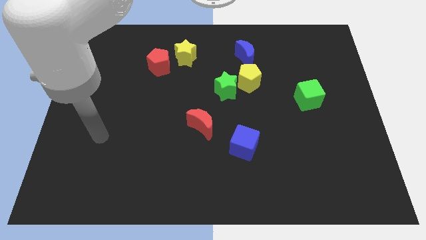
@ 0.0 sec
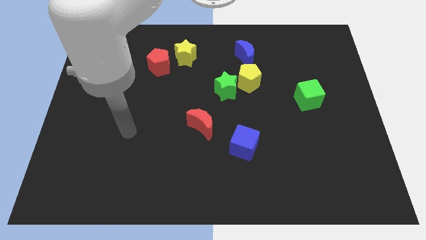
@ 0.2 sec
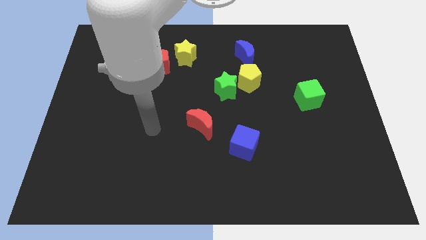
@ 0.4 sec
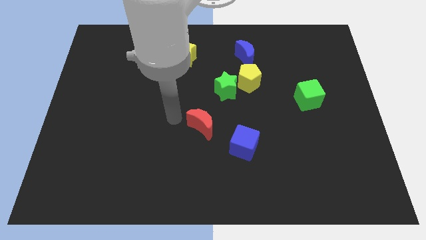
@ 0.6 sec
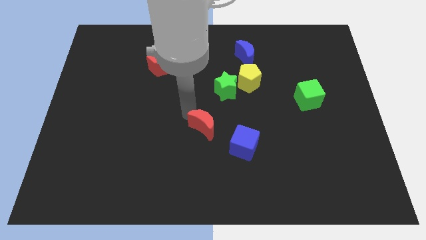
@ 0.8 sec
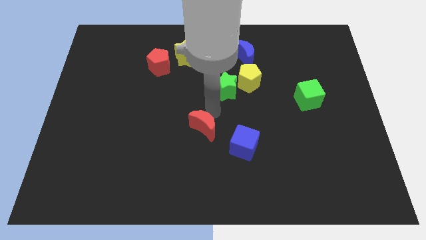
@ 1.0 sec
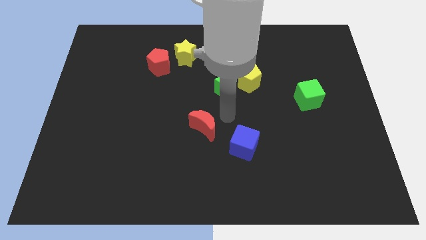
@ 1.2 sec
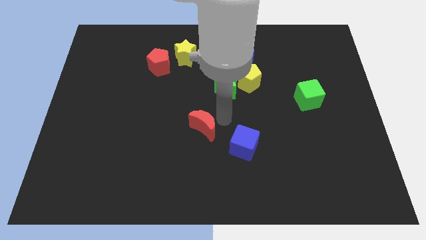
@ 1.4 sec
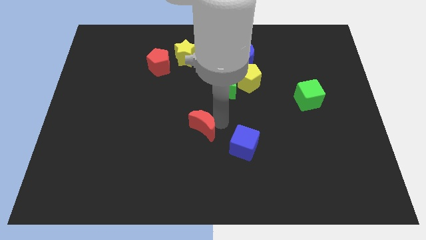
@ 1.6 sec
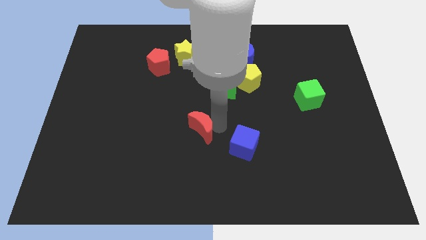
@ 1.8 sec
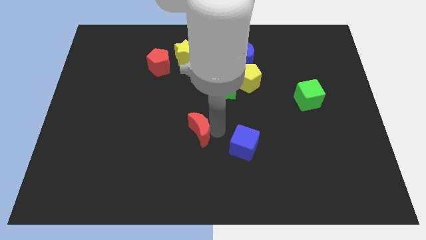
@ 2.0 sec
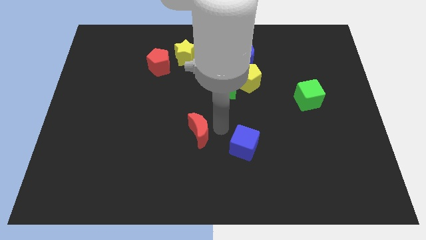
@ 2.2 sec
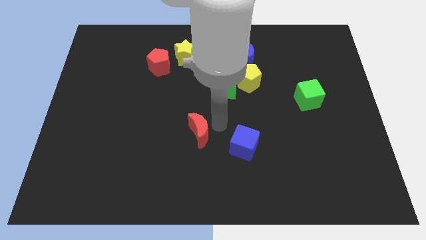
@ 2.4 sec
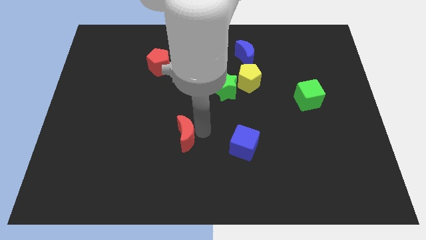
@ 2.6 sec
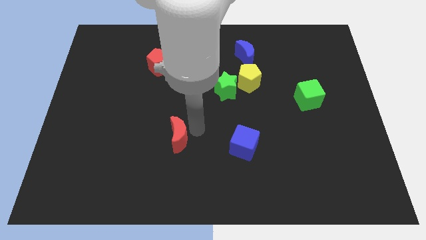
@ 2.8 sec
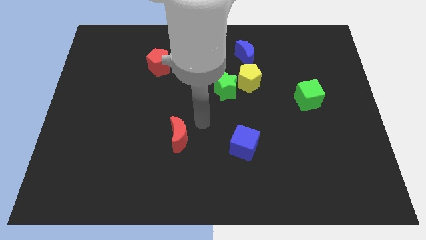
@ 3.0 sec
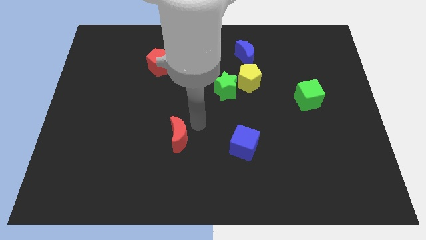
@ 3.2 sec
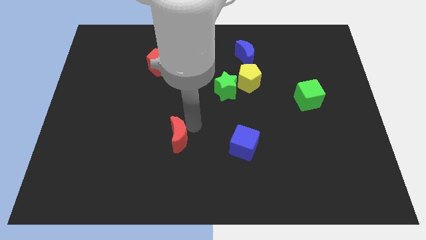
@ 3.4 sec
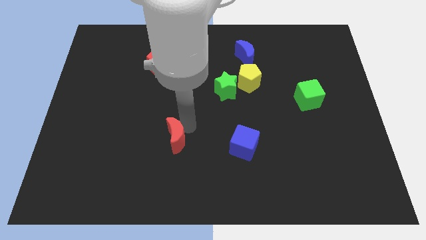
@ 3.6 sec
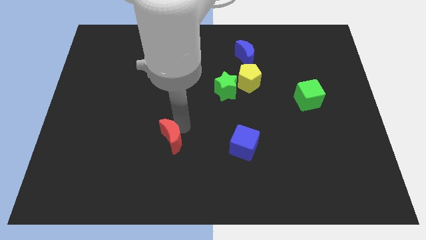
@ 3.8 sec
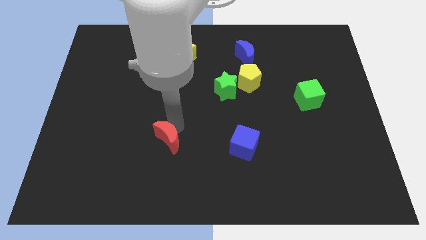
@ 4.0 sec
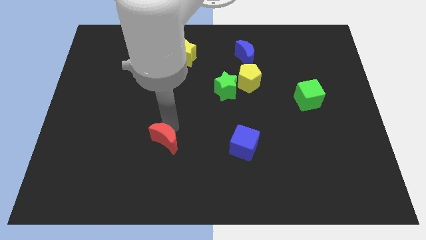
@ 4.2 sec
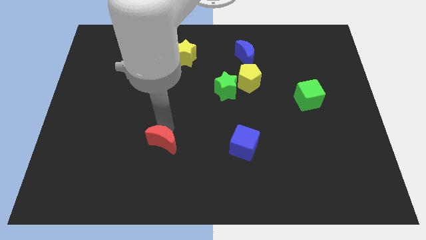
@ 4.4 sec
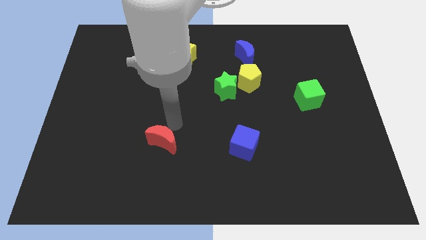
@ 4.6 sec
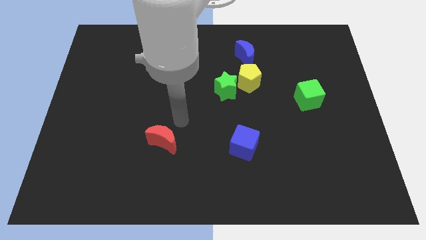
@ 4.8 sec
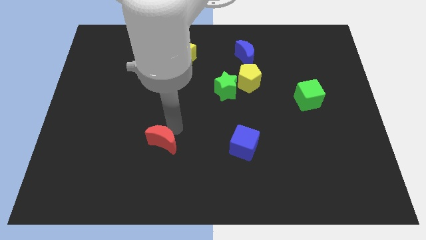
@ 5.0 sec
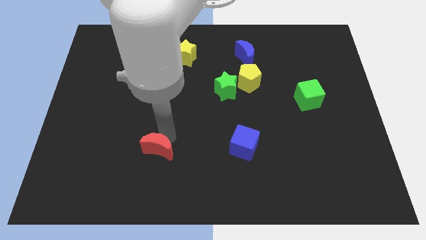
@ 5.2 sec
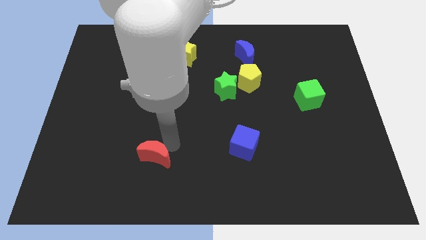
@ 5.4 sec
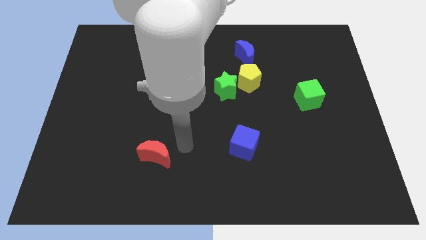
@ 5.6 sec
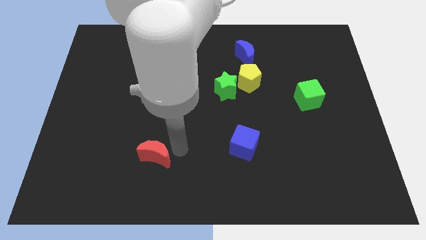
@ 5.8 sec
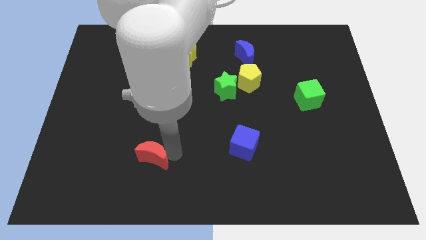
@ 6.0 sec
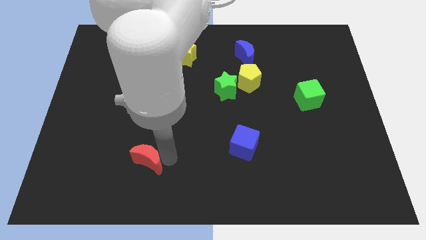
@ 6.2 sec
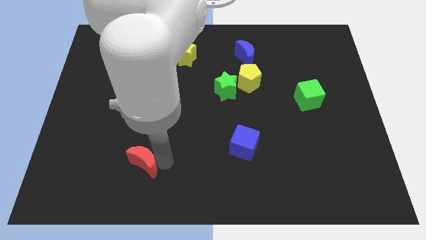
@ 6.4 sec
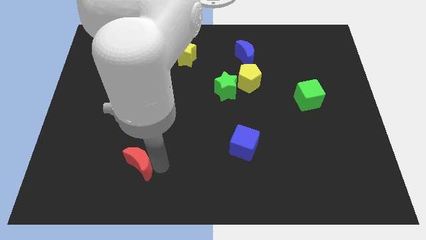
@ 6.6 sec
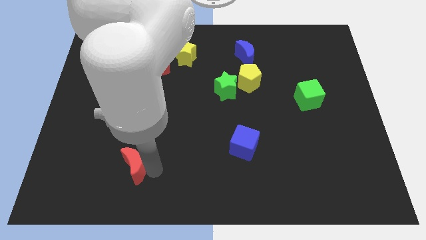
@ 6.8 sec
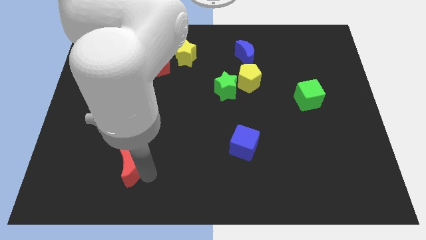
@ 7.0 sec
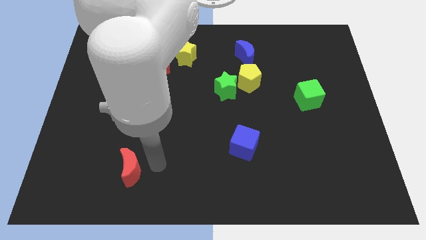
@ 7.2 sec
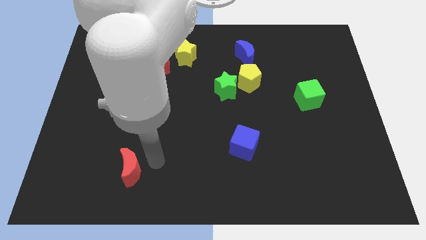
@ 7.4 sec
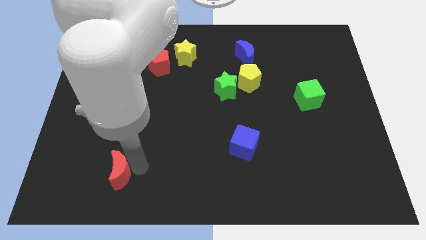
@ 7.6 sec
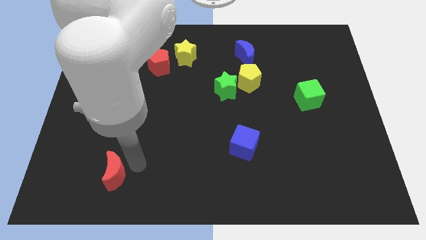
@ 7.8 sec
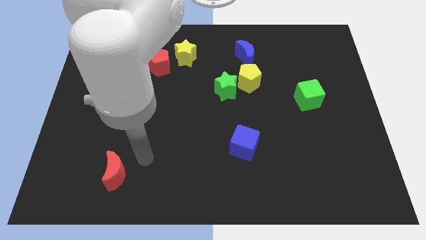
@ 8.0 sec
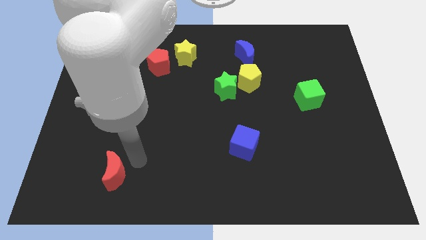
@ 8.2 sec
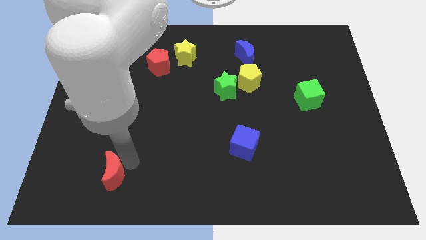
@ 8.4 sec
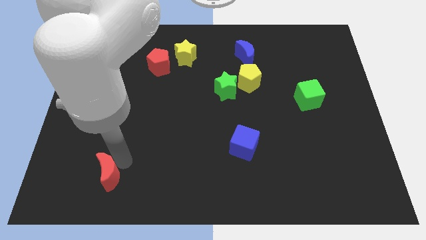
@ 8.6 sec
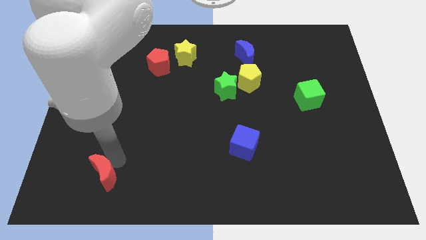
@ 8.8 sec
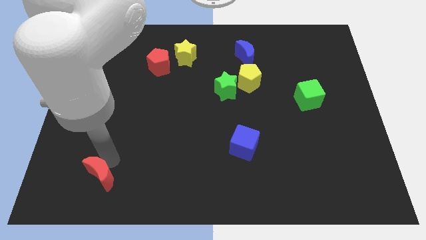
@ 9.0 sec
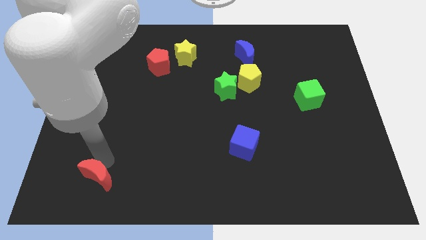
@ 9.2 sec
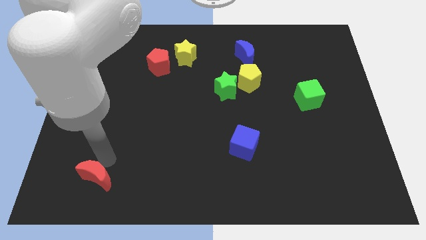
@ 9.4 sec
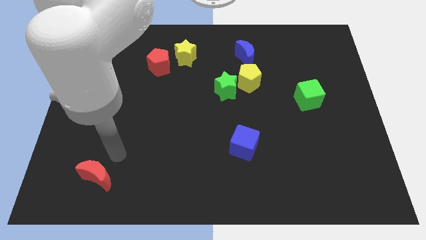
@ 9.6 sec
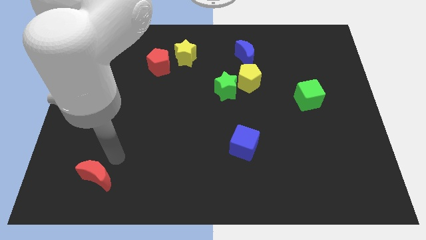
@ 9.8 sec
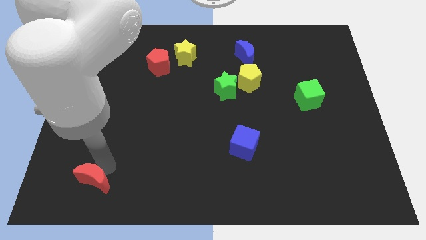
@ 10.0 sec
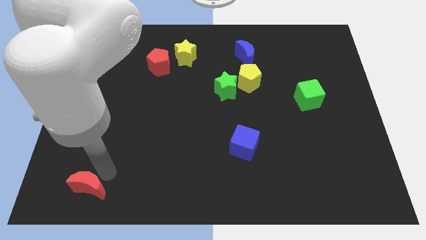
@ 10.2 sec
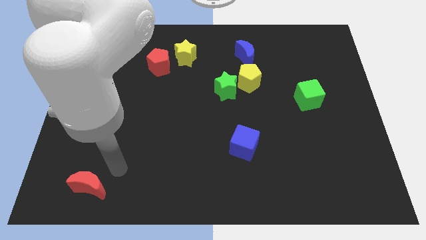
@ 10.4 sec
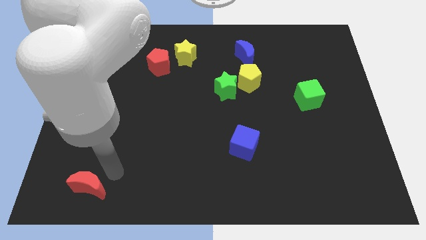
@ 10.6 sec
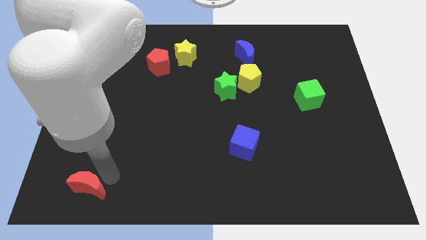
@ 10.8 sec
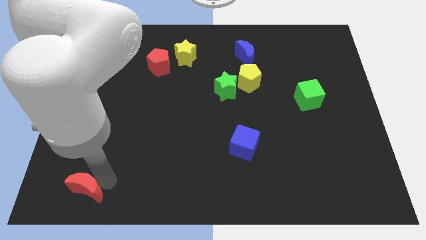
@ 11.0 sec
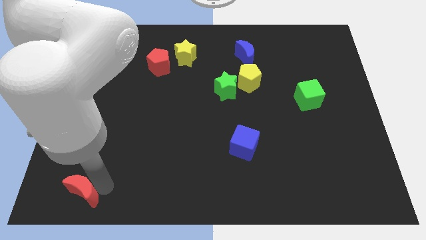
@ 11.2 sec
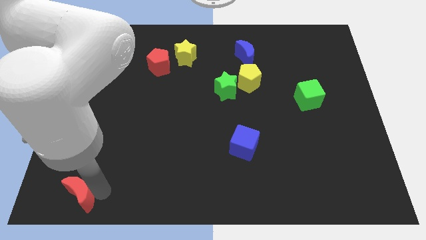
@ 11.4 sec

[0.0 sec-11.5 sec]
move the red moon to the bottom left of the board
